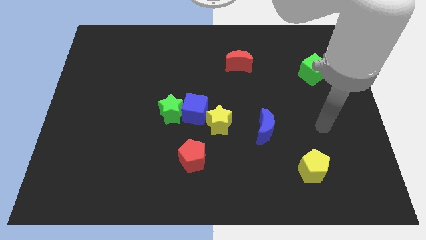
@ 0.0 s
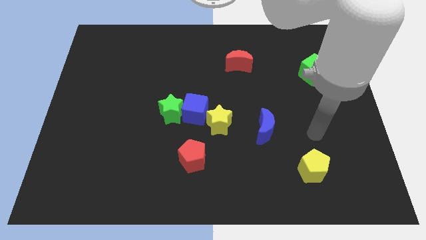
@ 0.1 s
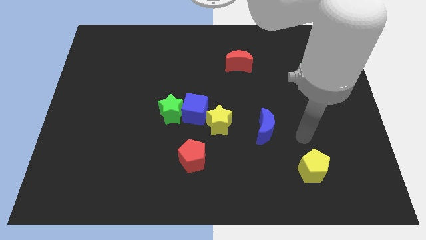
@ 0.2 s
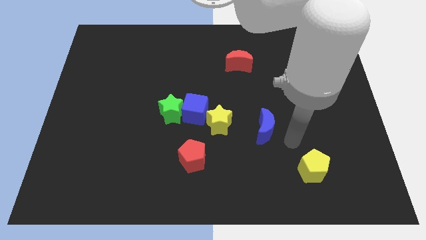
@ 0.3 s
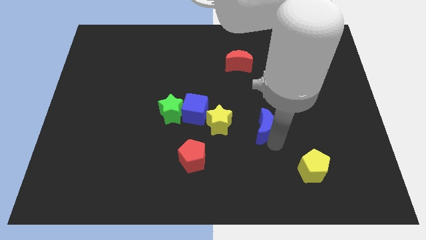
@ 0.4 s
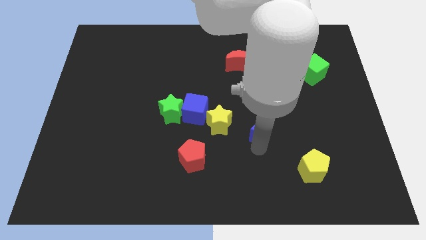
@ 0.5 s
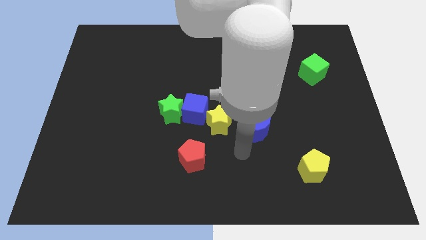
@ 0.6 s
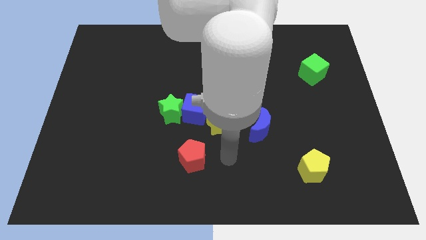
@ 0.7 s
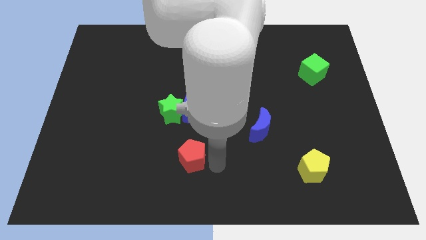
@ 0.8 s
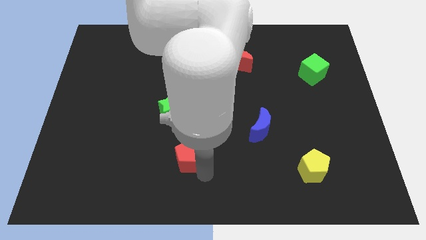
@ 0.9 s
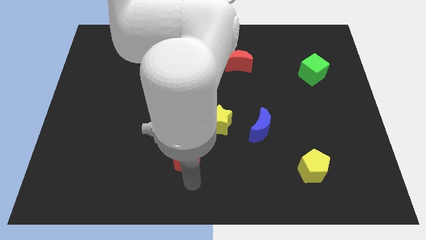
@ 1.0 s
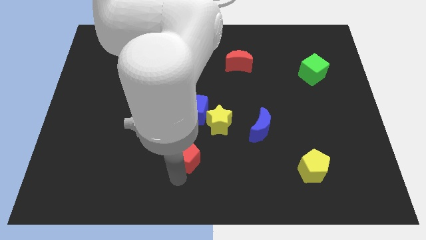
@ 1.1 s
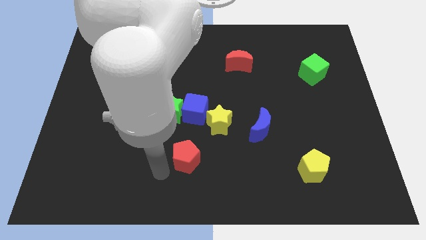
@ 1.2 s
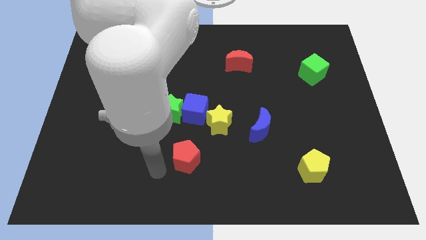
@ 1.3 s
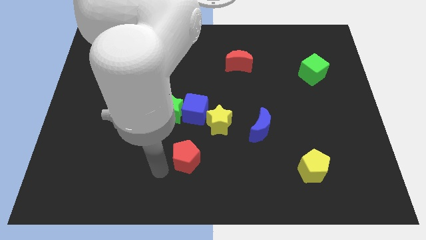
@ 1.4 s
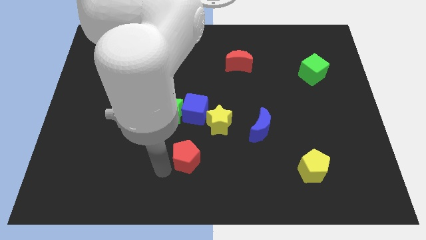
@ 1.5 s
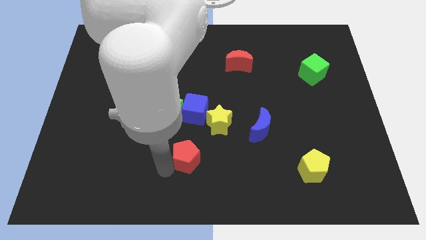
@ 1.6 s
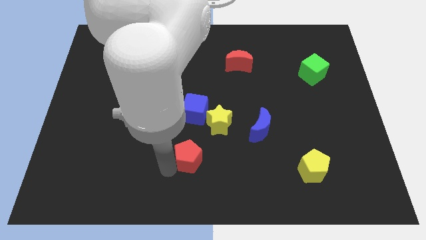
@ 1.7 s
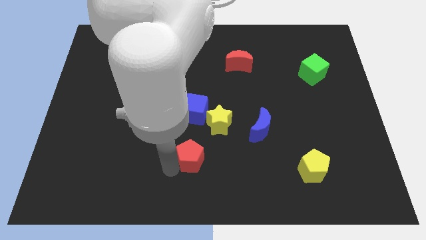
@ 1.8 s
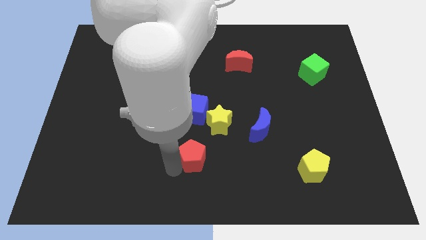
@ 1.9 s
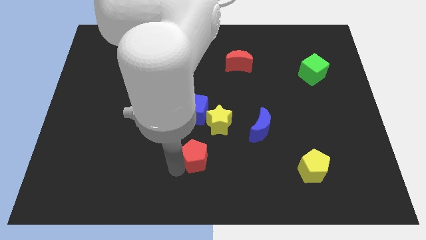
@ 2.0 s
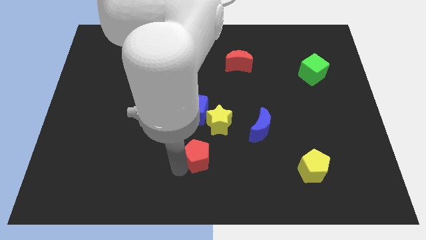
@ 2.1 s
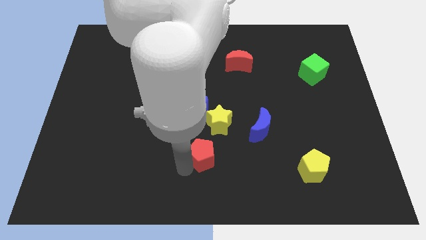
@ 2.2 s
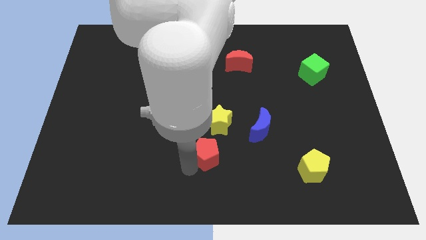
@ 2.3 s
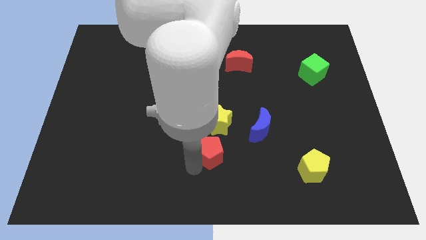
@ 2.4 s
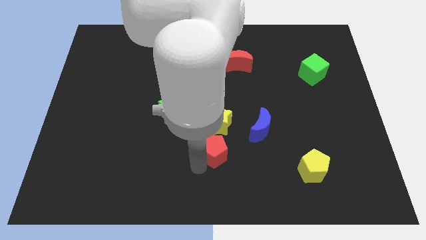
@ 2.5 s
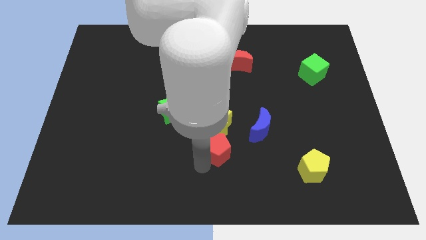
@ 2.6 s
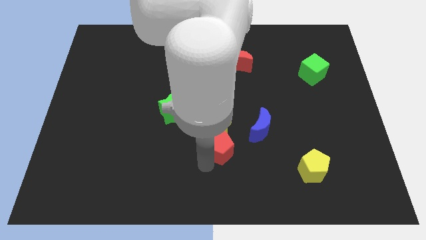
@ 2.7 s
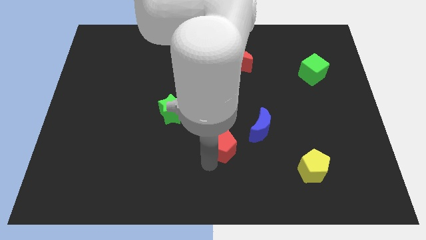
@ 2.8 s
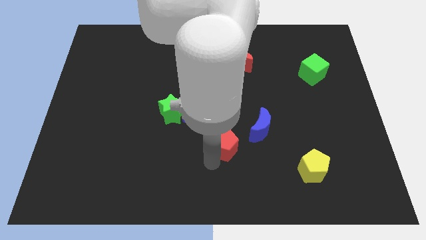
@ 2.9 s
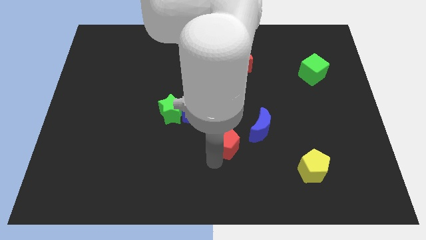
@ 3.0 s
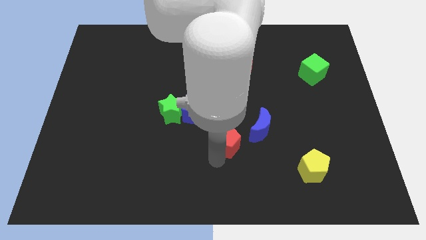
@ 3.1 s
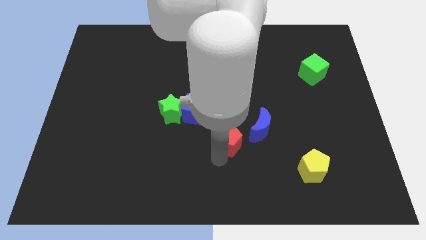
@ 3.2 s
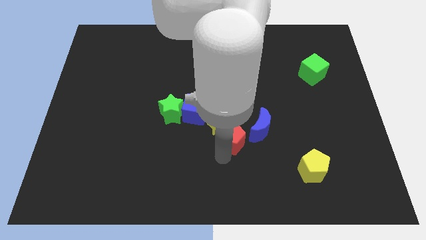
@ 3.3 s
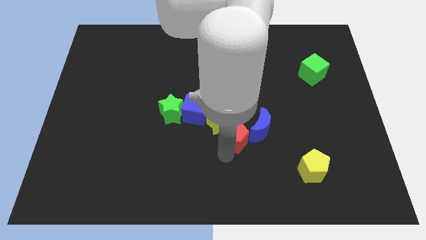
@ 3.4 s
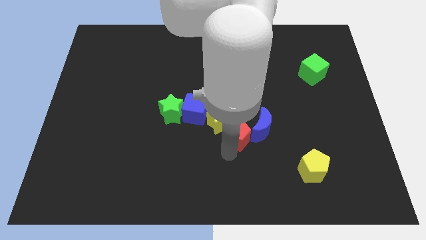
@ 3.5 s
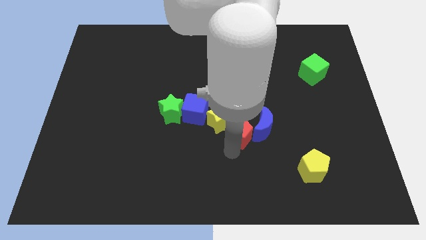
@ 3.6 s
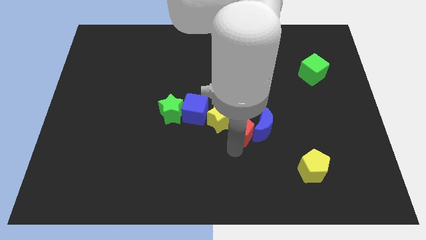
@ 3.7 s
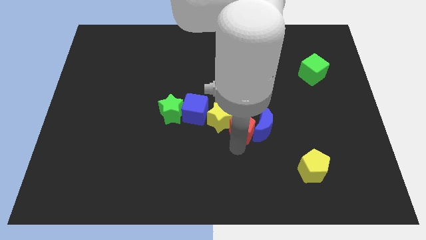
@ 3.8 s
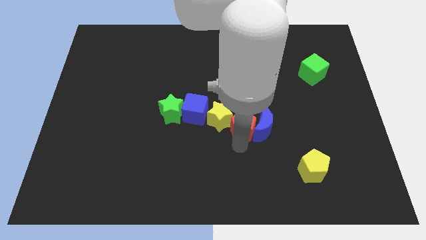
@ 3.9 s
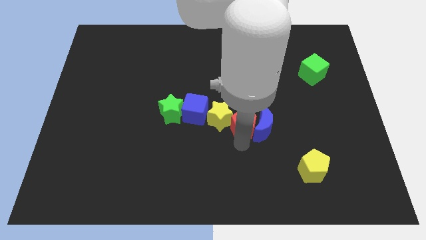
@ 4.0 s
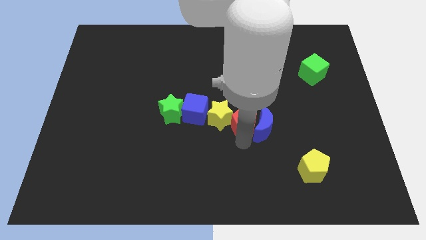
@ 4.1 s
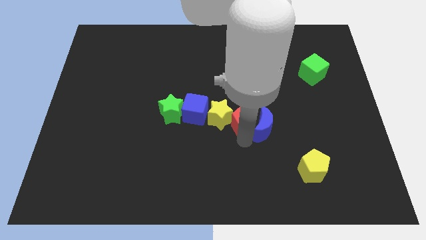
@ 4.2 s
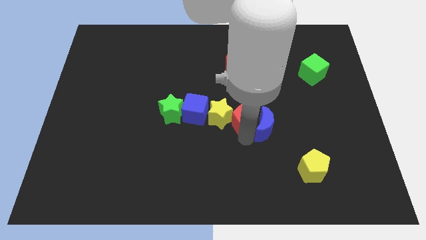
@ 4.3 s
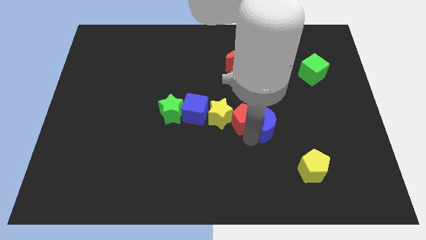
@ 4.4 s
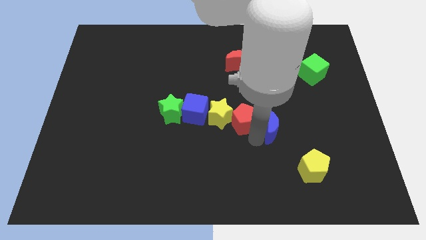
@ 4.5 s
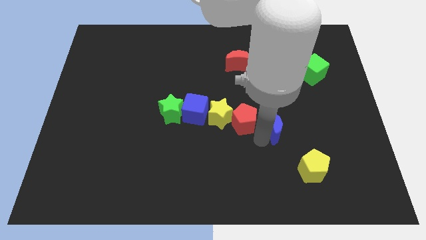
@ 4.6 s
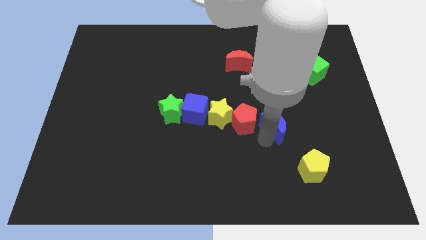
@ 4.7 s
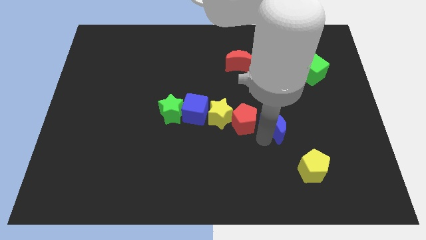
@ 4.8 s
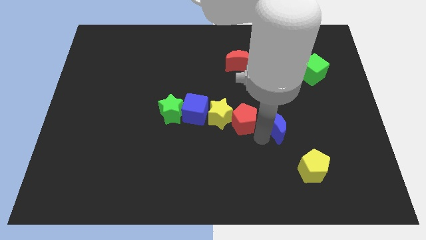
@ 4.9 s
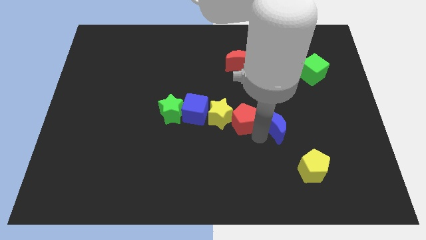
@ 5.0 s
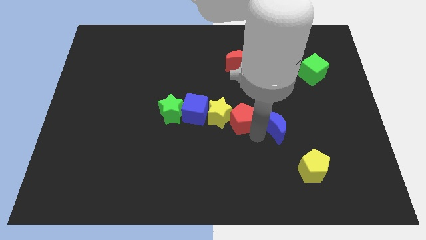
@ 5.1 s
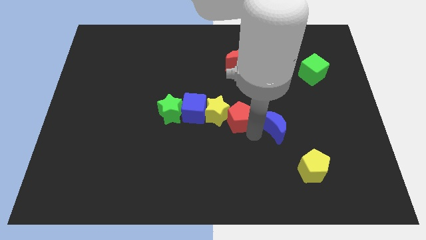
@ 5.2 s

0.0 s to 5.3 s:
push the red pentagon to the right of the green star

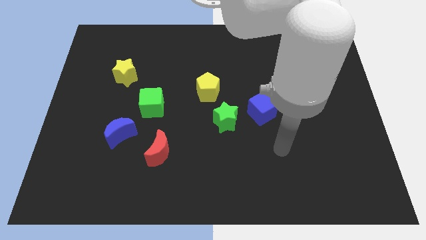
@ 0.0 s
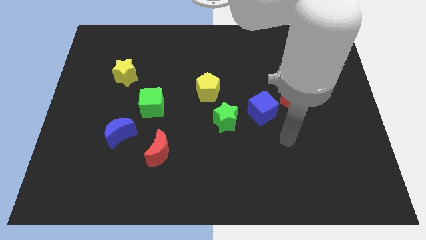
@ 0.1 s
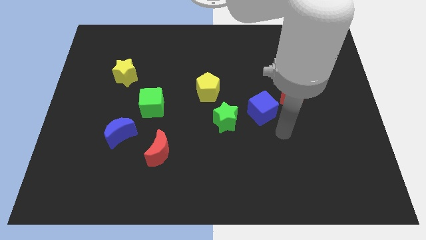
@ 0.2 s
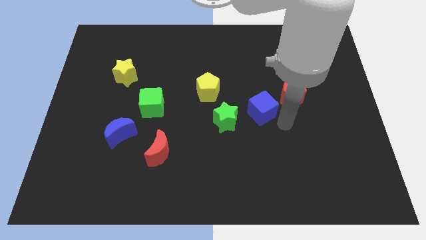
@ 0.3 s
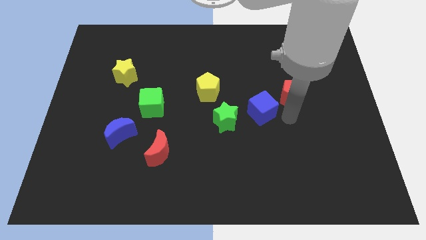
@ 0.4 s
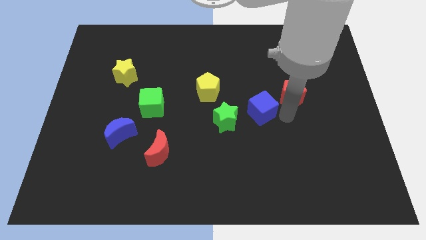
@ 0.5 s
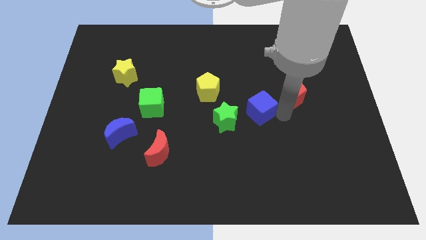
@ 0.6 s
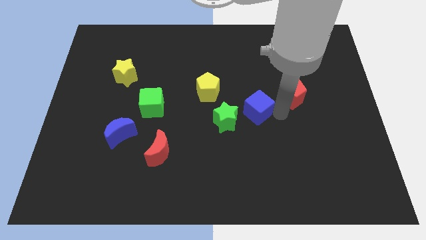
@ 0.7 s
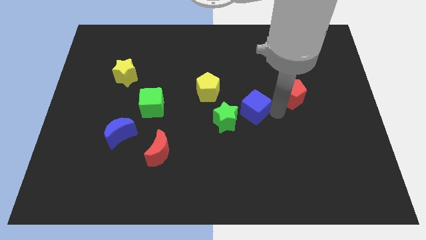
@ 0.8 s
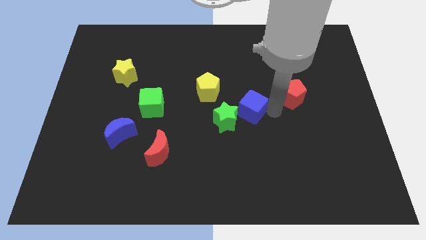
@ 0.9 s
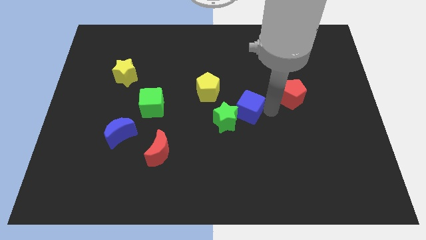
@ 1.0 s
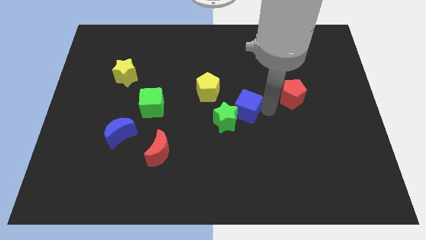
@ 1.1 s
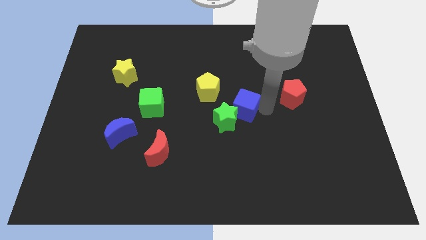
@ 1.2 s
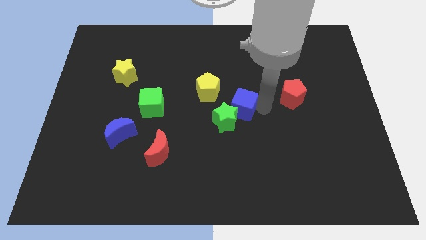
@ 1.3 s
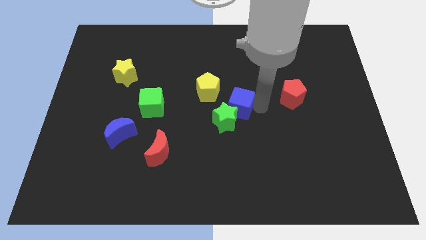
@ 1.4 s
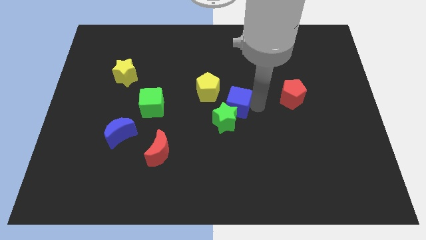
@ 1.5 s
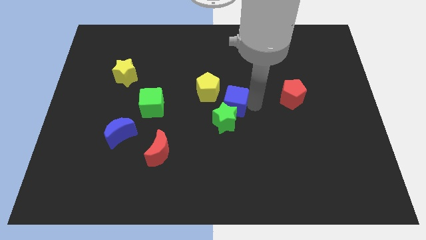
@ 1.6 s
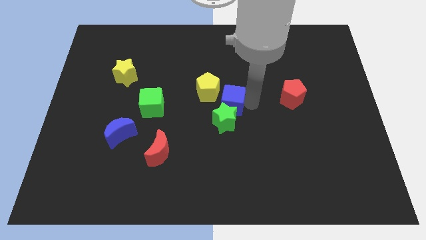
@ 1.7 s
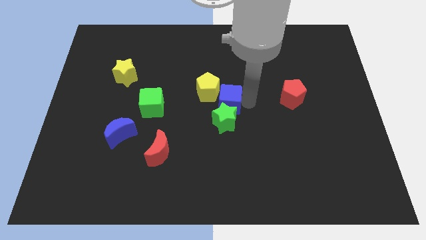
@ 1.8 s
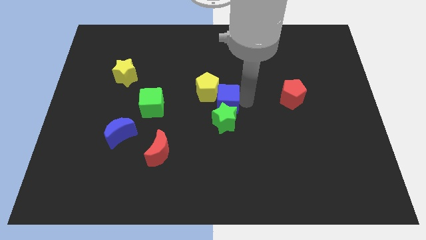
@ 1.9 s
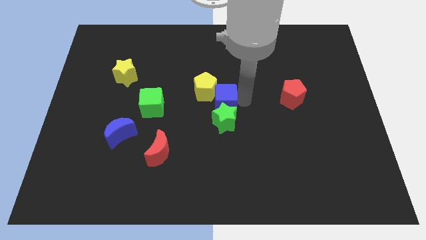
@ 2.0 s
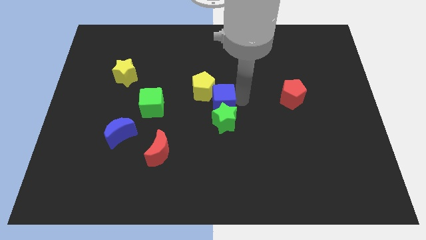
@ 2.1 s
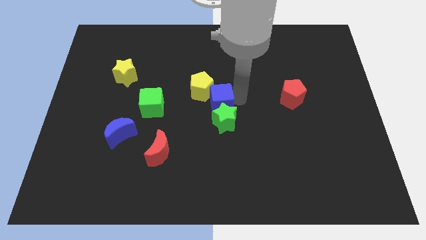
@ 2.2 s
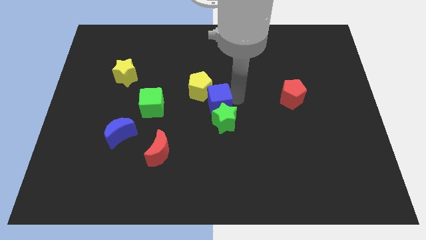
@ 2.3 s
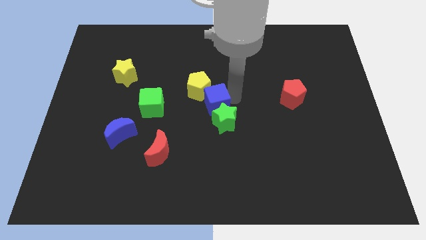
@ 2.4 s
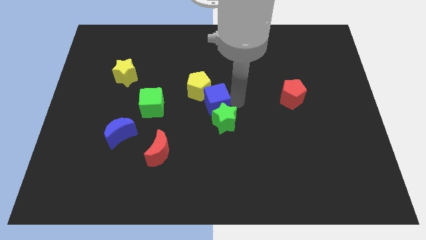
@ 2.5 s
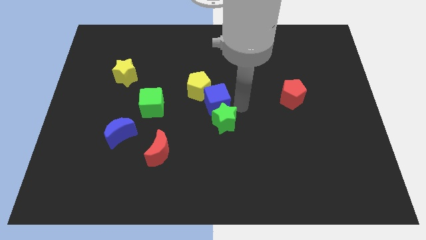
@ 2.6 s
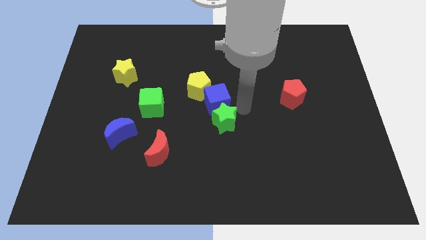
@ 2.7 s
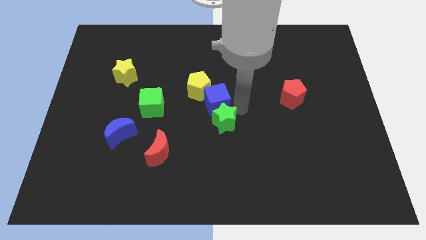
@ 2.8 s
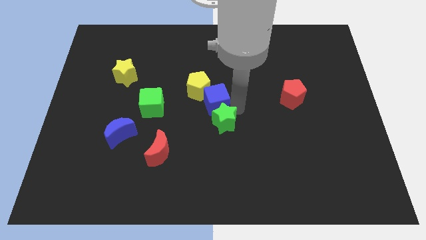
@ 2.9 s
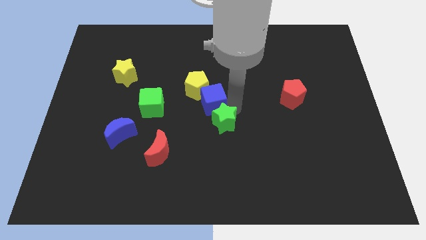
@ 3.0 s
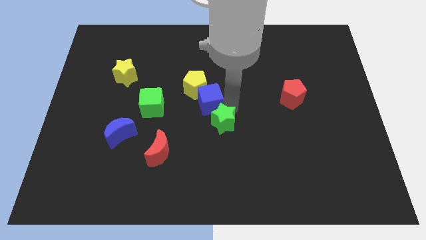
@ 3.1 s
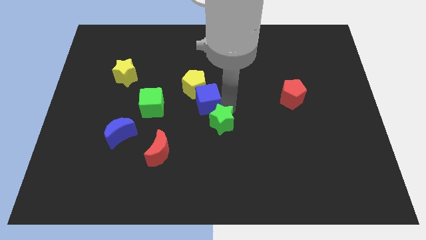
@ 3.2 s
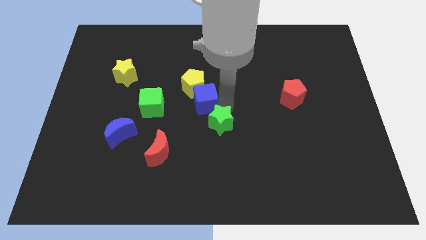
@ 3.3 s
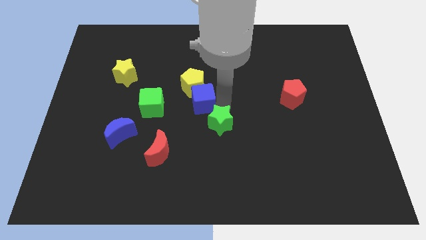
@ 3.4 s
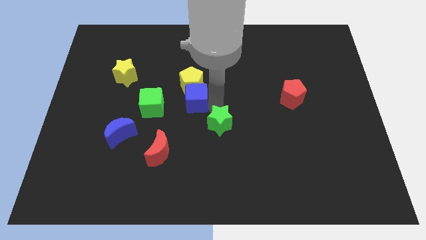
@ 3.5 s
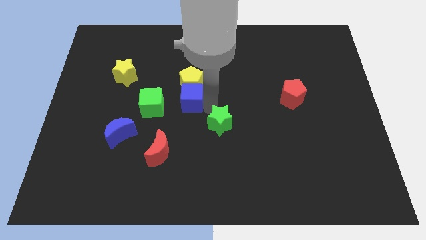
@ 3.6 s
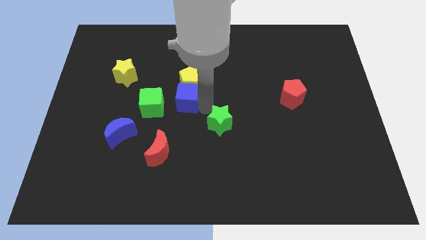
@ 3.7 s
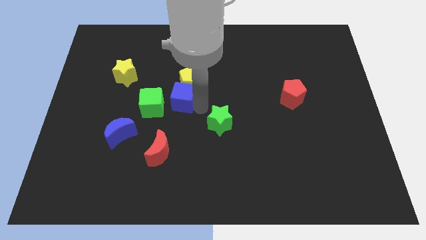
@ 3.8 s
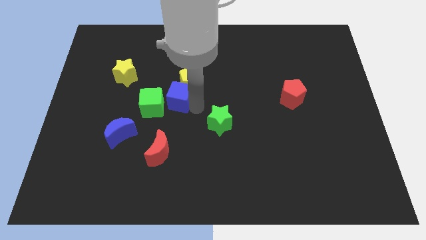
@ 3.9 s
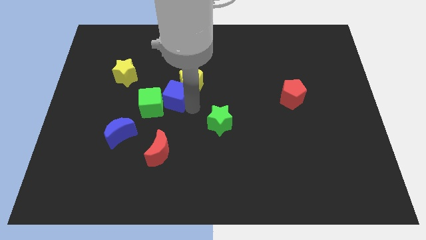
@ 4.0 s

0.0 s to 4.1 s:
move the blue cube to the left of the yellow pentagon
